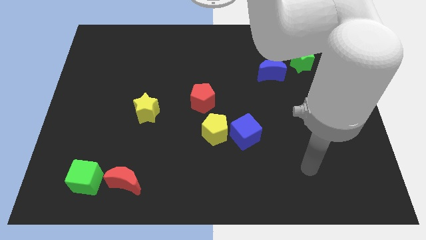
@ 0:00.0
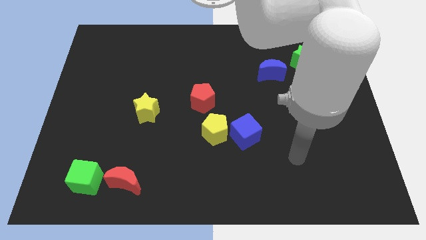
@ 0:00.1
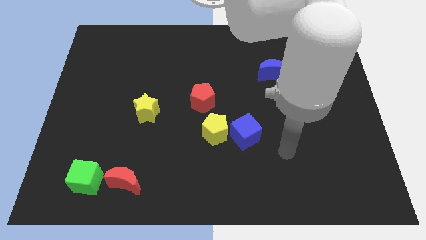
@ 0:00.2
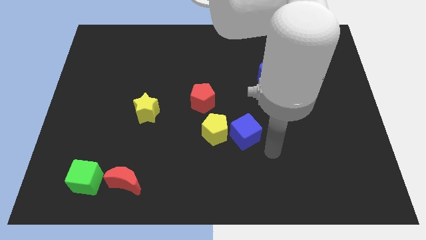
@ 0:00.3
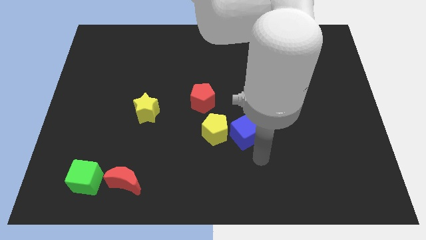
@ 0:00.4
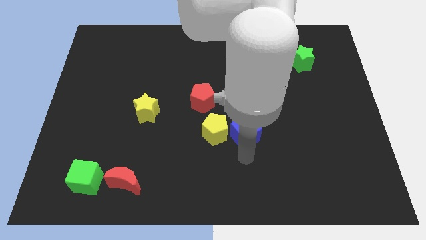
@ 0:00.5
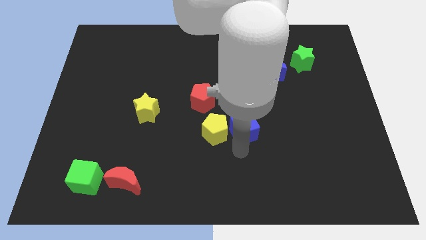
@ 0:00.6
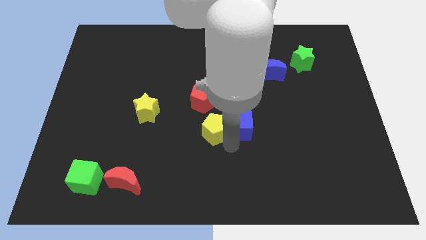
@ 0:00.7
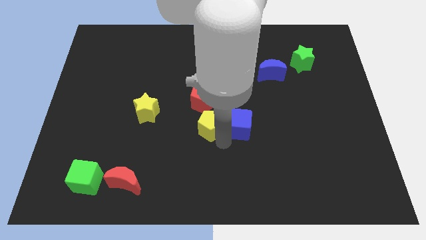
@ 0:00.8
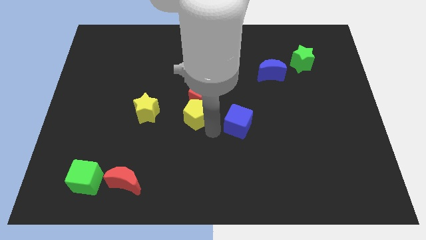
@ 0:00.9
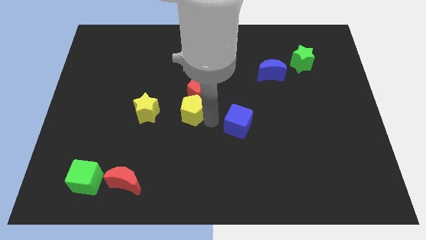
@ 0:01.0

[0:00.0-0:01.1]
move the blue cube away from the yellow pentagon

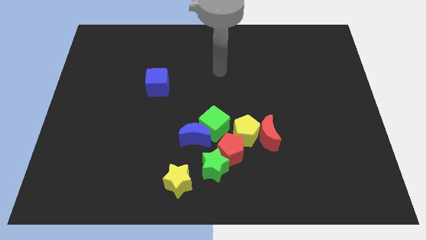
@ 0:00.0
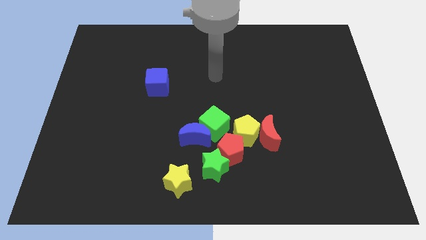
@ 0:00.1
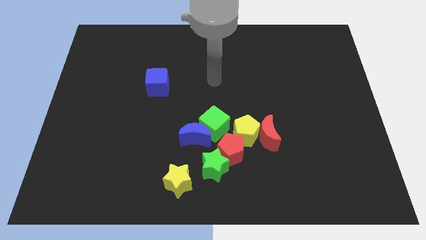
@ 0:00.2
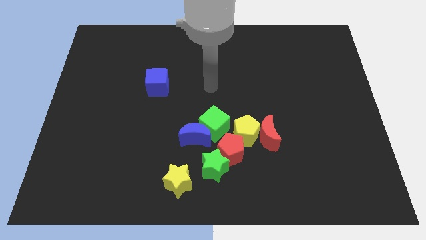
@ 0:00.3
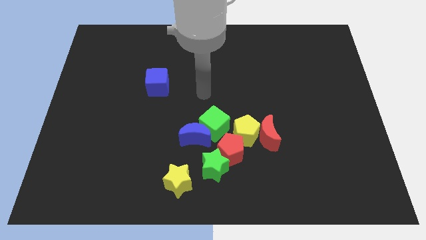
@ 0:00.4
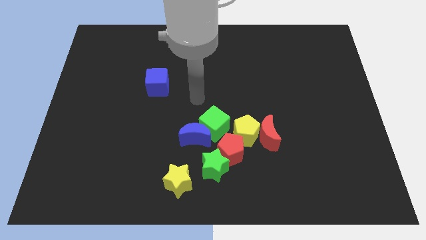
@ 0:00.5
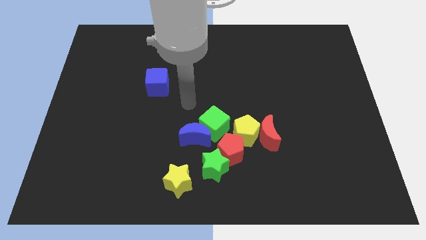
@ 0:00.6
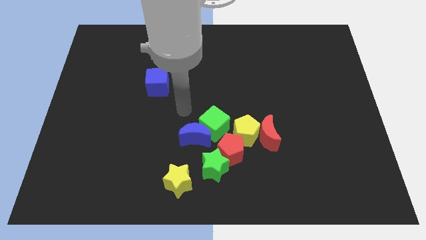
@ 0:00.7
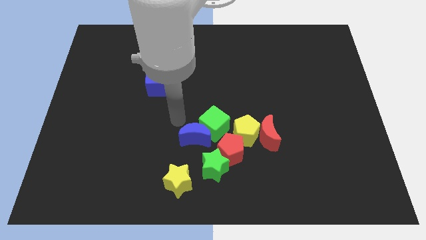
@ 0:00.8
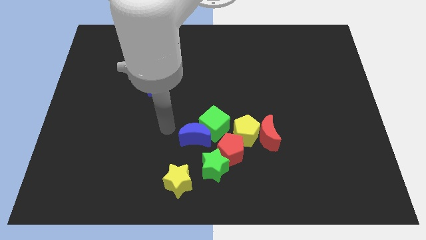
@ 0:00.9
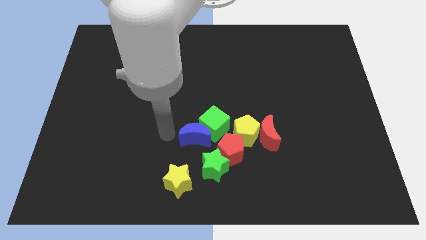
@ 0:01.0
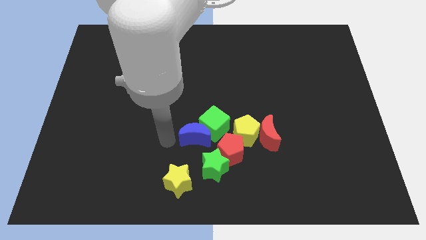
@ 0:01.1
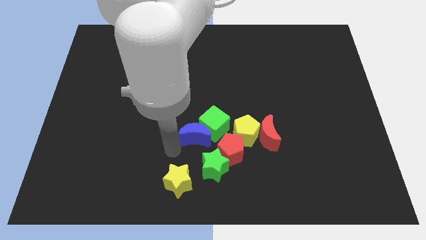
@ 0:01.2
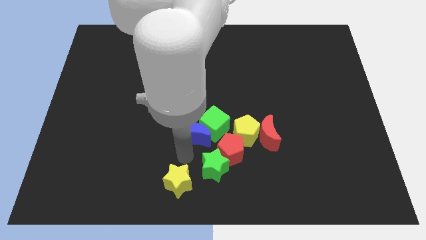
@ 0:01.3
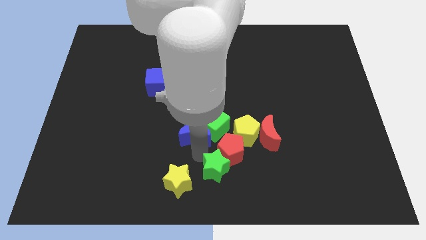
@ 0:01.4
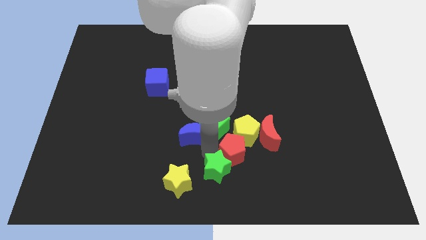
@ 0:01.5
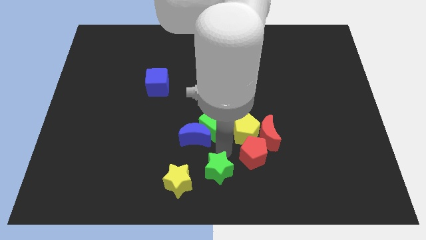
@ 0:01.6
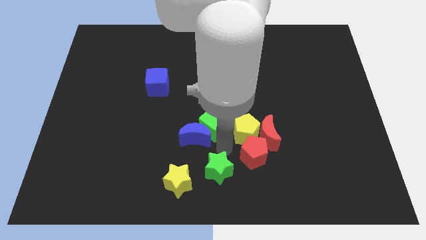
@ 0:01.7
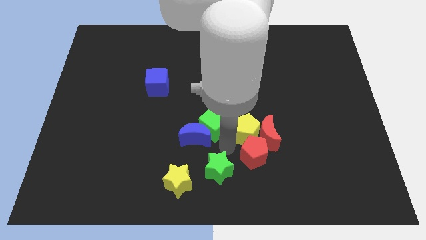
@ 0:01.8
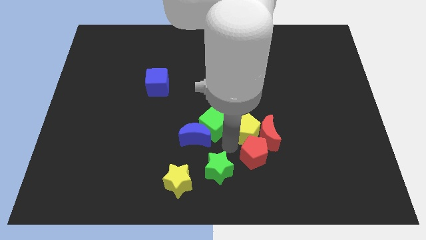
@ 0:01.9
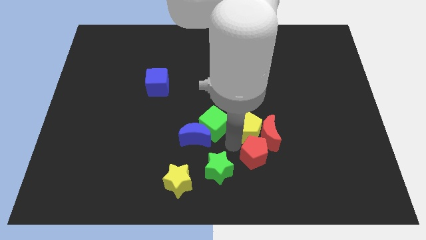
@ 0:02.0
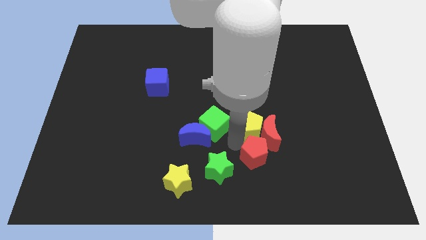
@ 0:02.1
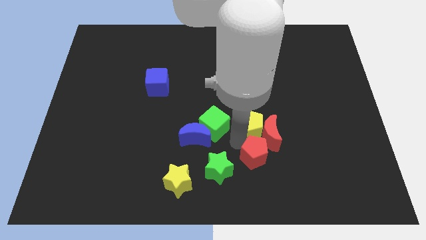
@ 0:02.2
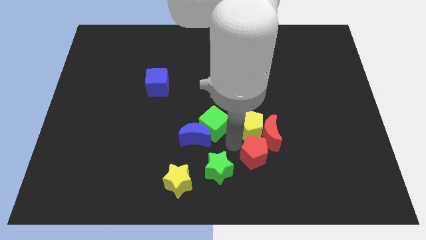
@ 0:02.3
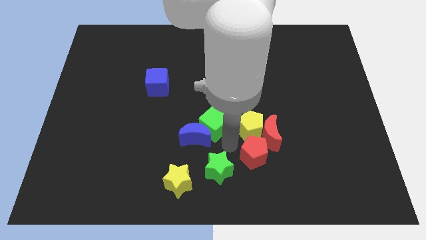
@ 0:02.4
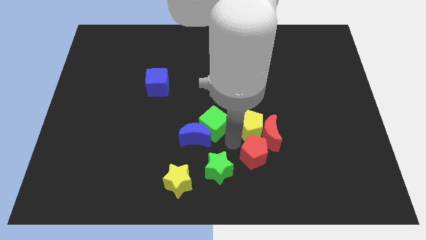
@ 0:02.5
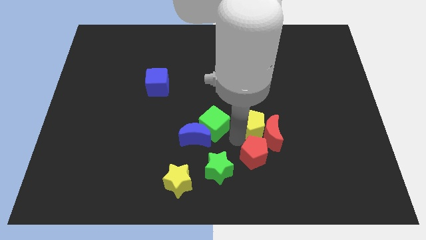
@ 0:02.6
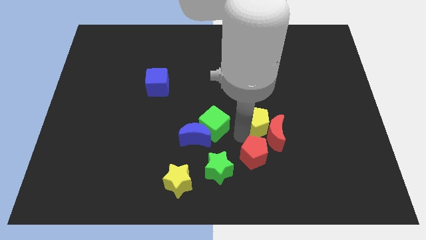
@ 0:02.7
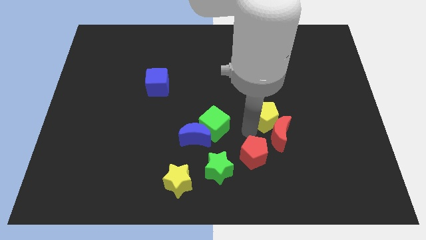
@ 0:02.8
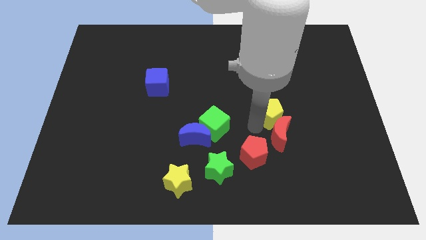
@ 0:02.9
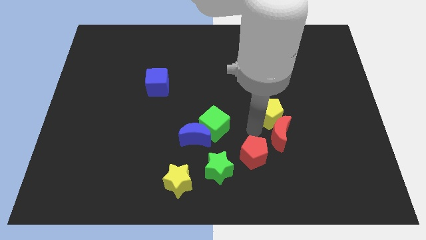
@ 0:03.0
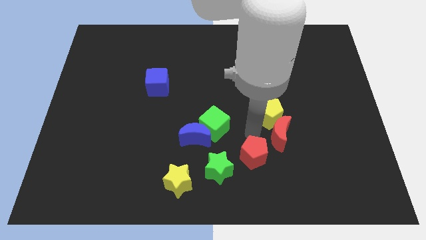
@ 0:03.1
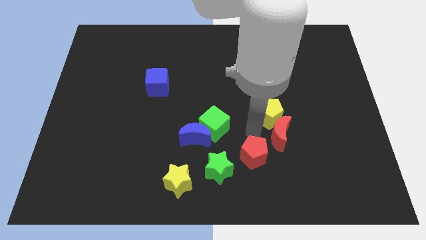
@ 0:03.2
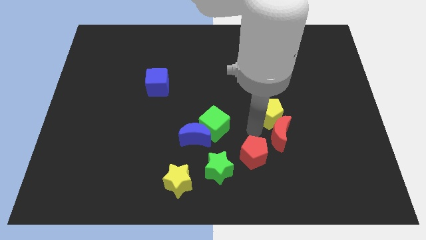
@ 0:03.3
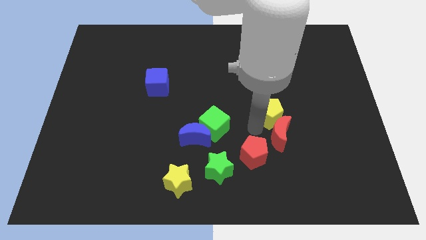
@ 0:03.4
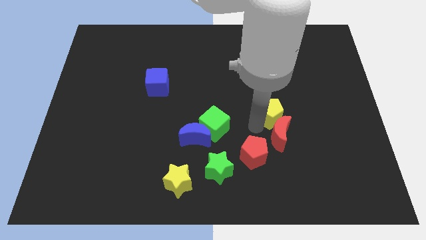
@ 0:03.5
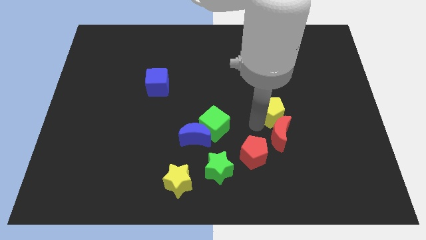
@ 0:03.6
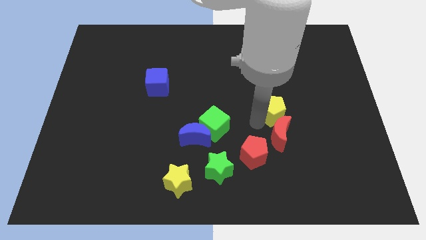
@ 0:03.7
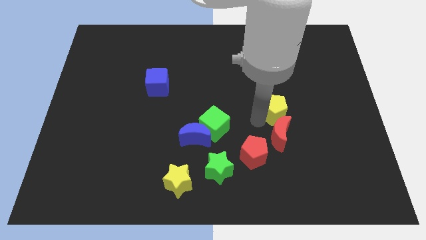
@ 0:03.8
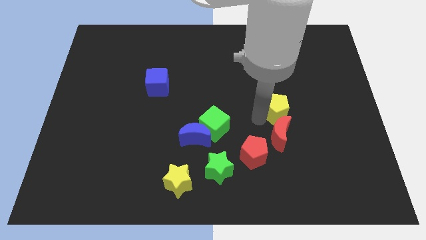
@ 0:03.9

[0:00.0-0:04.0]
separate the yellow pentagon from the red moon, red pentagon, and green cube

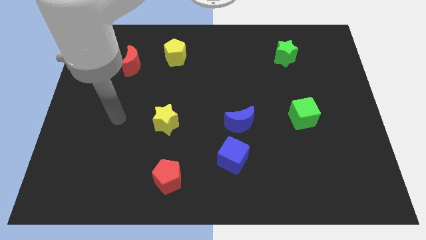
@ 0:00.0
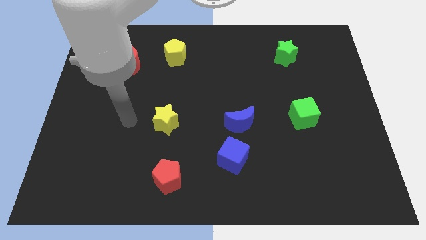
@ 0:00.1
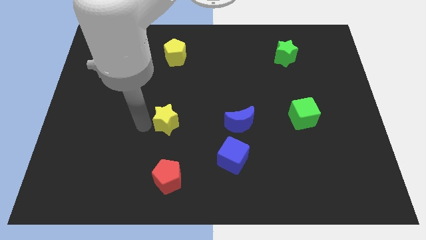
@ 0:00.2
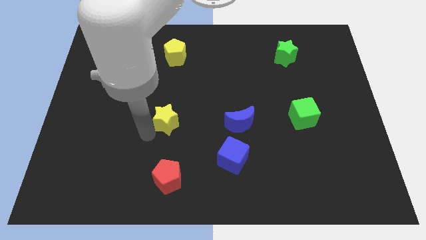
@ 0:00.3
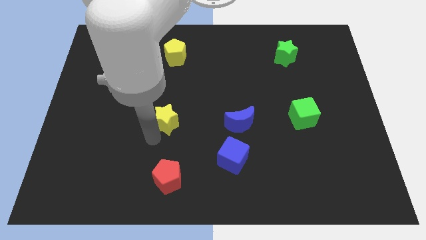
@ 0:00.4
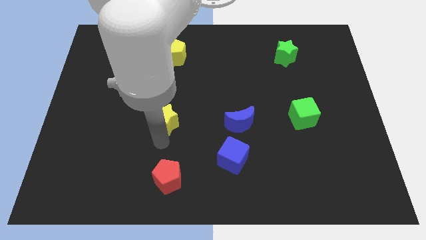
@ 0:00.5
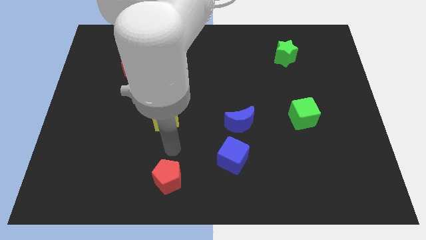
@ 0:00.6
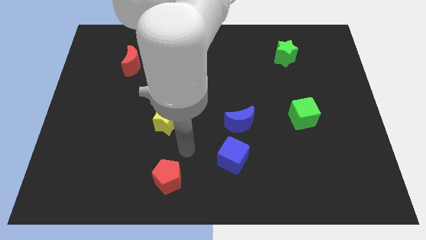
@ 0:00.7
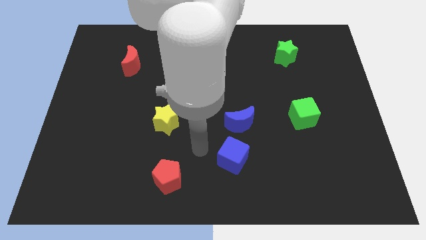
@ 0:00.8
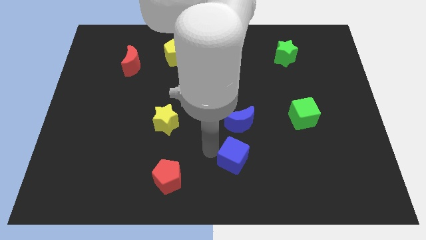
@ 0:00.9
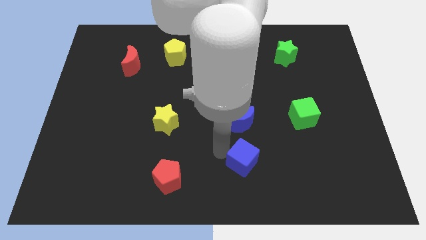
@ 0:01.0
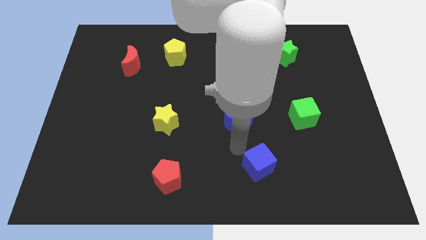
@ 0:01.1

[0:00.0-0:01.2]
move the blue moon away from the blue cube

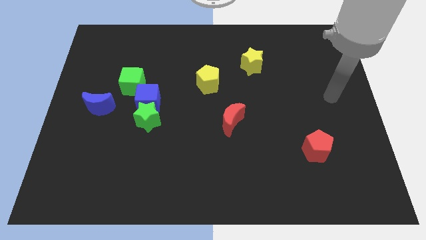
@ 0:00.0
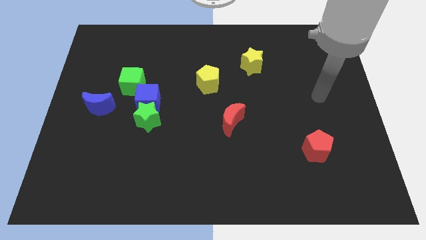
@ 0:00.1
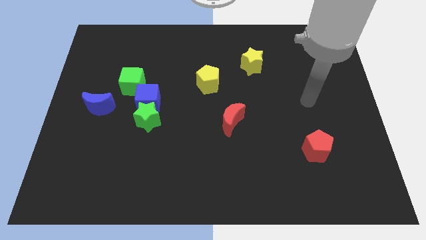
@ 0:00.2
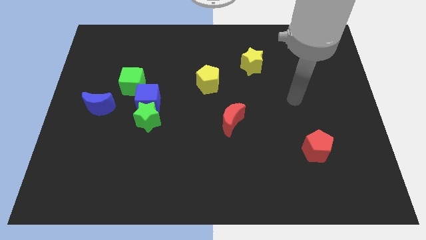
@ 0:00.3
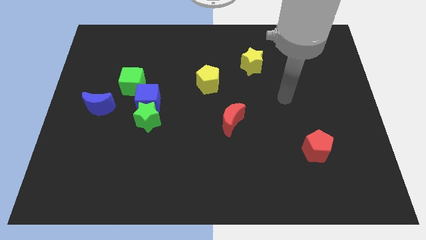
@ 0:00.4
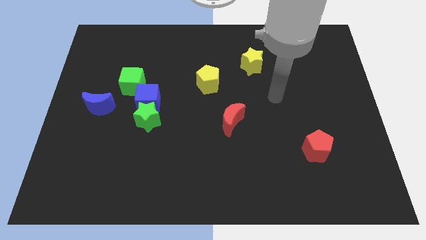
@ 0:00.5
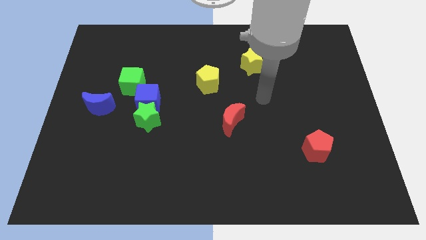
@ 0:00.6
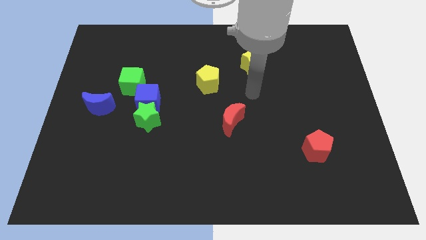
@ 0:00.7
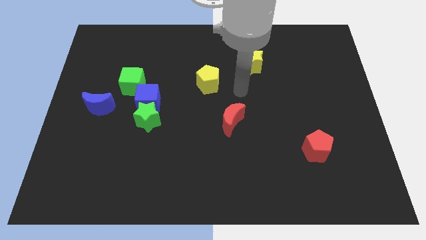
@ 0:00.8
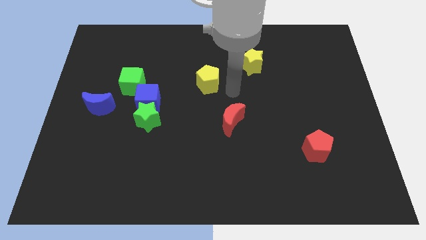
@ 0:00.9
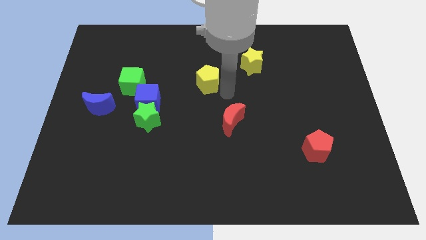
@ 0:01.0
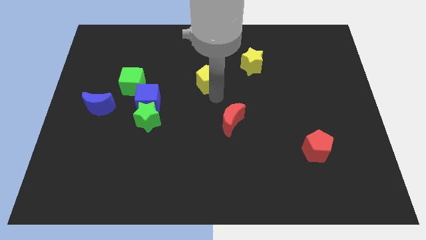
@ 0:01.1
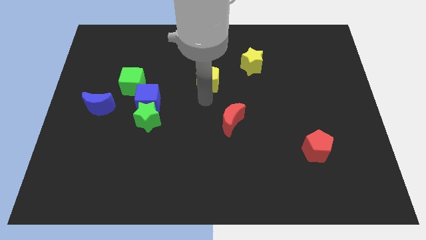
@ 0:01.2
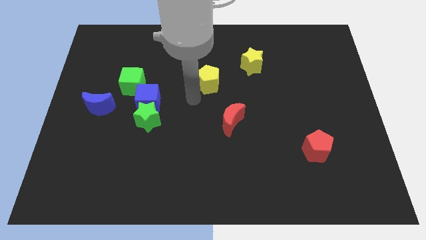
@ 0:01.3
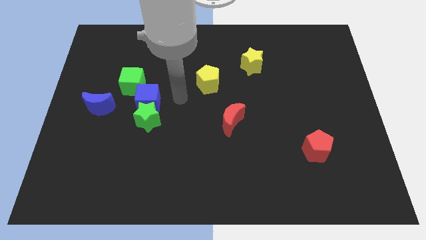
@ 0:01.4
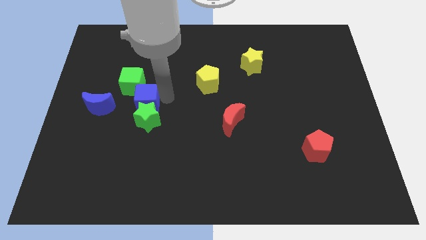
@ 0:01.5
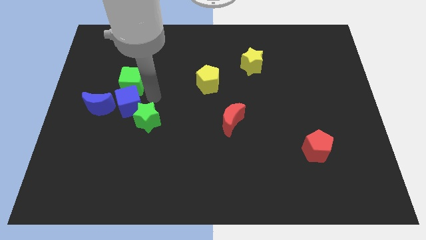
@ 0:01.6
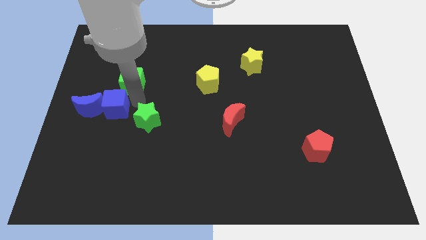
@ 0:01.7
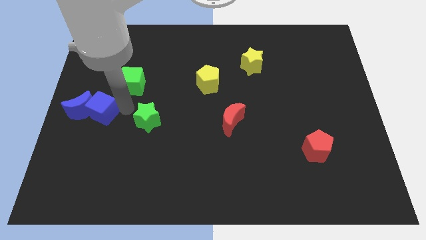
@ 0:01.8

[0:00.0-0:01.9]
separate the green star from the blue cube

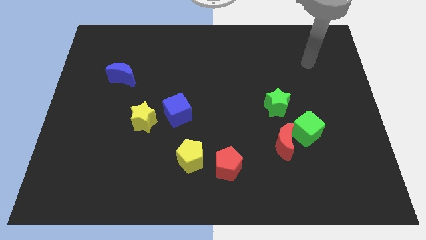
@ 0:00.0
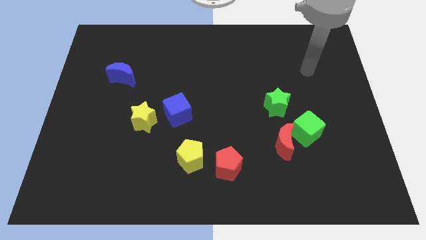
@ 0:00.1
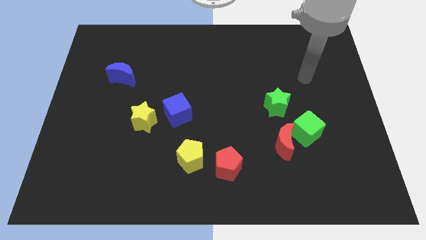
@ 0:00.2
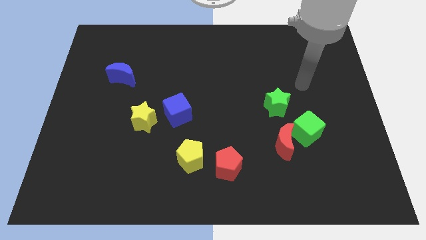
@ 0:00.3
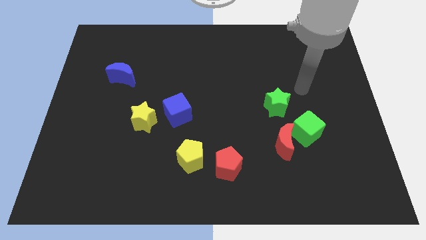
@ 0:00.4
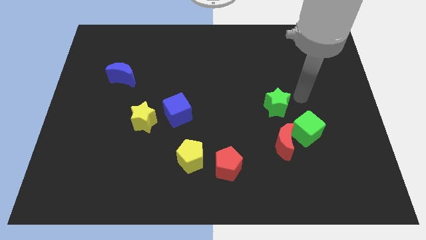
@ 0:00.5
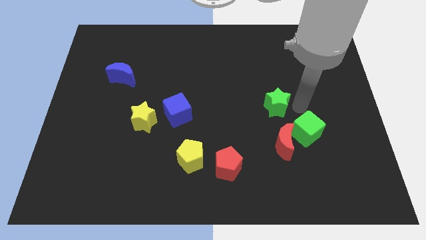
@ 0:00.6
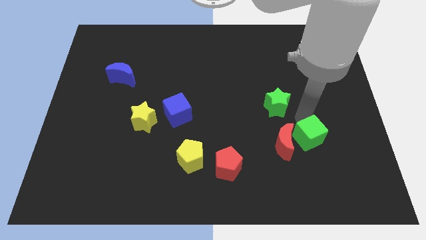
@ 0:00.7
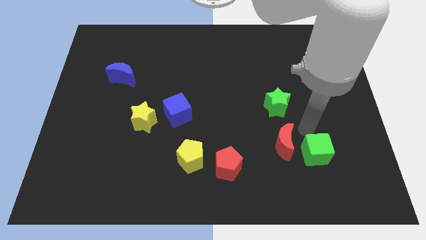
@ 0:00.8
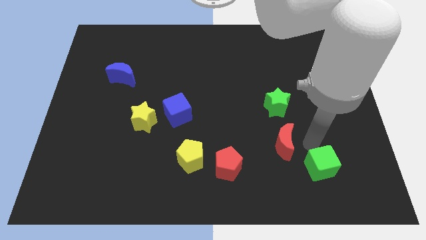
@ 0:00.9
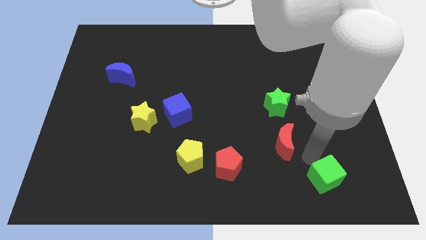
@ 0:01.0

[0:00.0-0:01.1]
pull the red moon apart from the green cube
